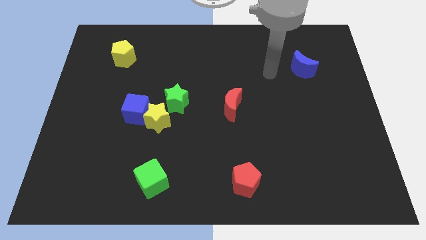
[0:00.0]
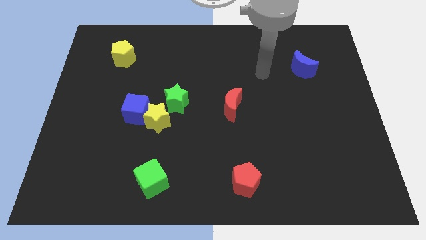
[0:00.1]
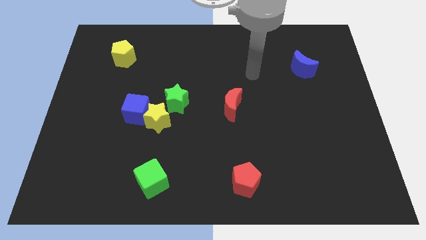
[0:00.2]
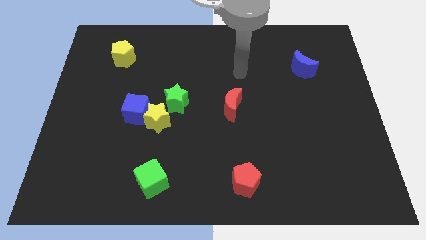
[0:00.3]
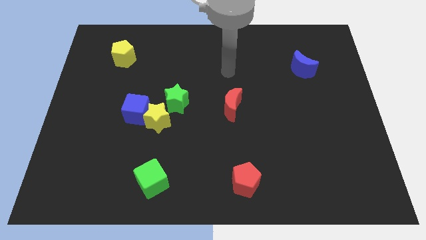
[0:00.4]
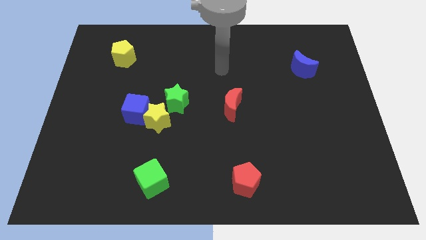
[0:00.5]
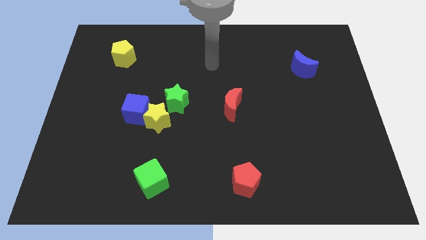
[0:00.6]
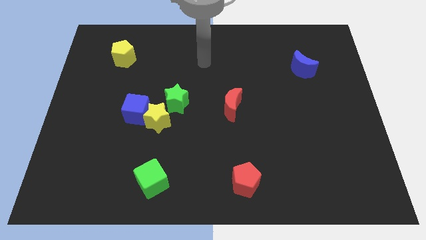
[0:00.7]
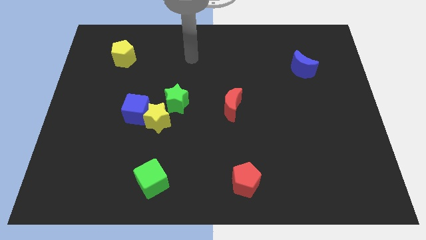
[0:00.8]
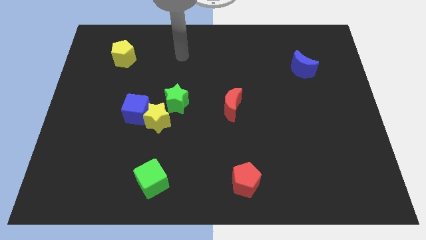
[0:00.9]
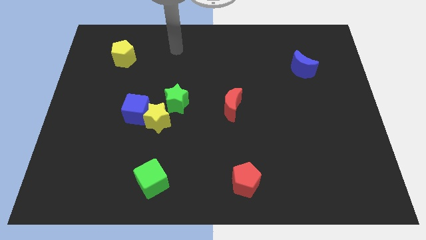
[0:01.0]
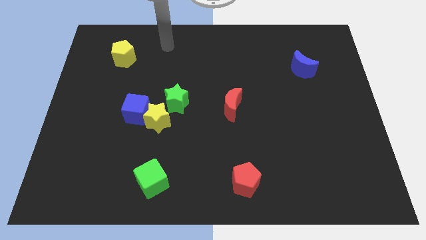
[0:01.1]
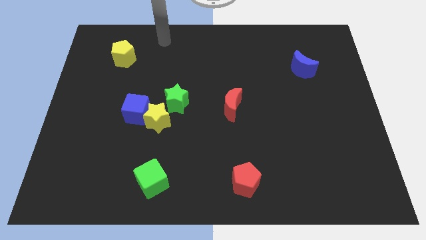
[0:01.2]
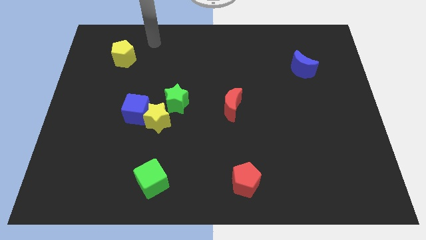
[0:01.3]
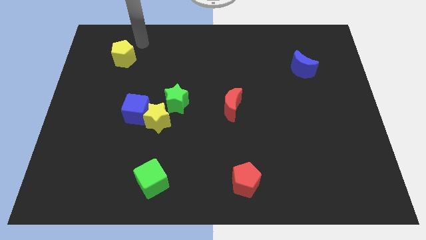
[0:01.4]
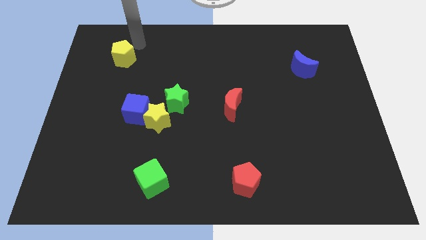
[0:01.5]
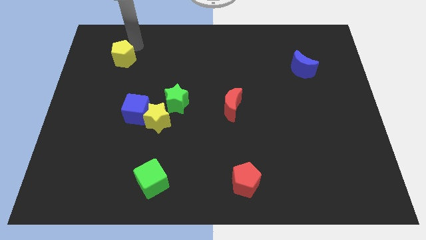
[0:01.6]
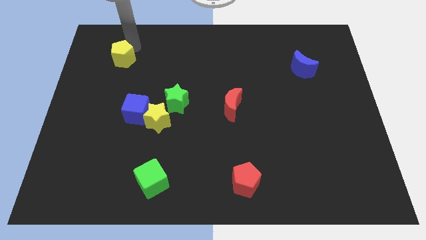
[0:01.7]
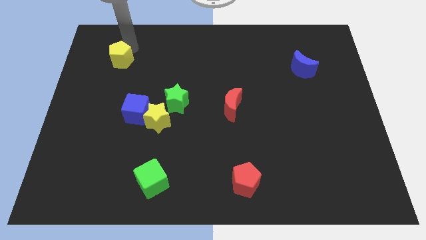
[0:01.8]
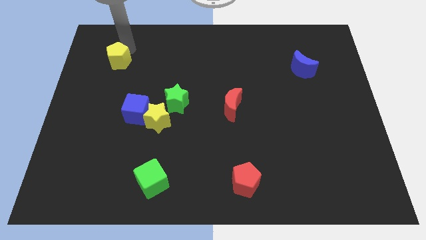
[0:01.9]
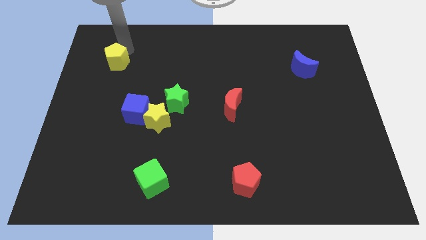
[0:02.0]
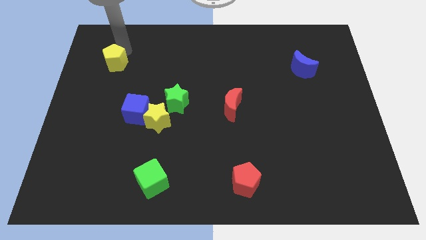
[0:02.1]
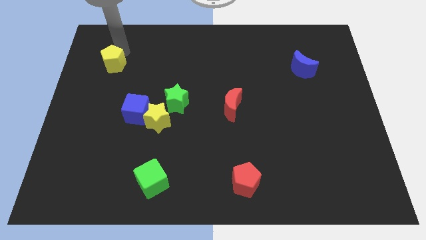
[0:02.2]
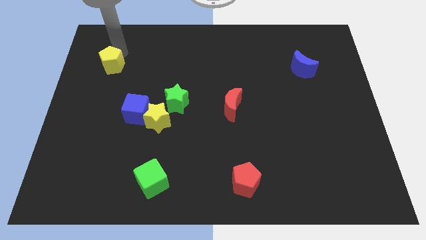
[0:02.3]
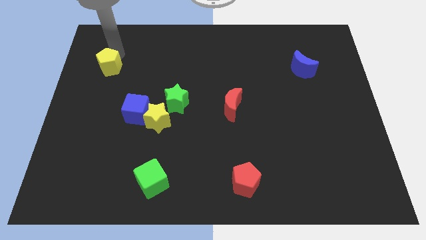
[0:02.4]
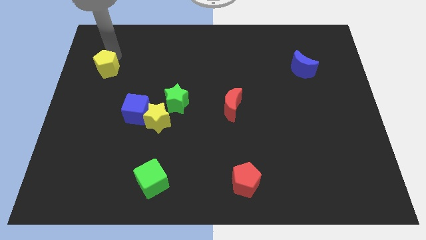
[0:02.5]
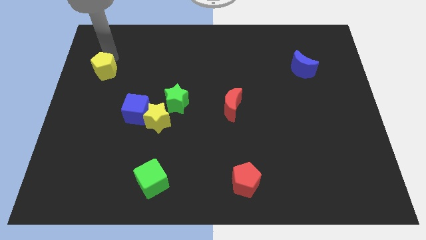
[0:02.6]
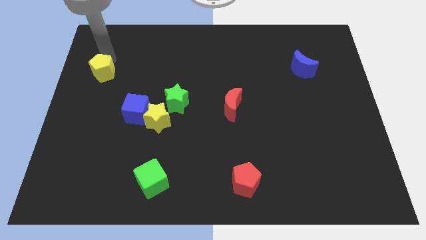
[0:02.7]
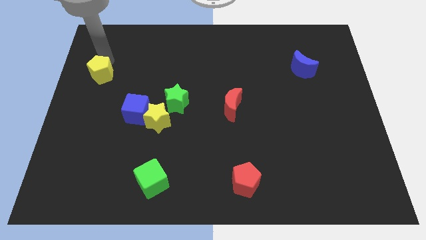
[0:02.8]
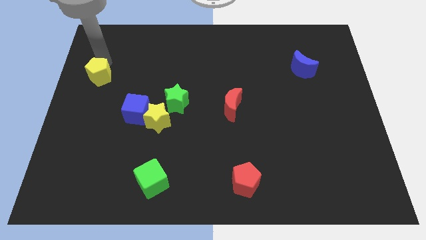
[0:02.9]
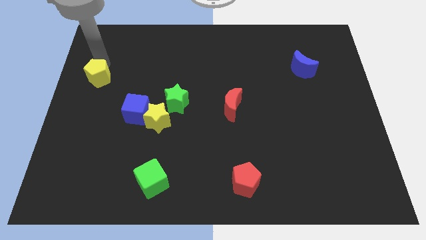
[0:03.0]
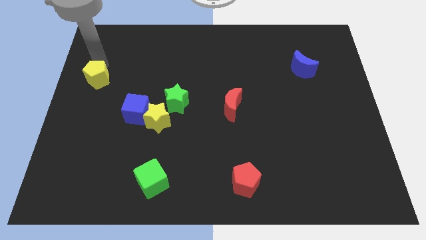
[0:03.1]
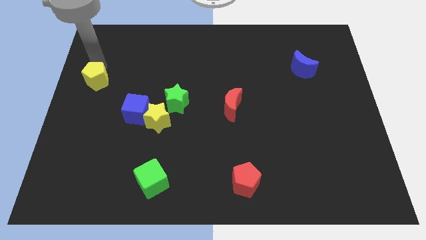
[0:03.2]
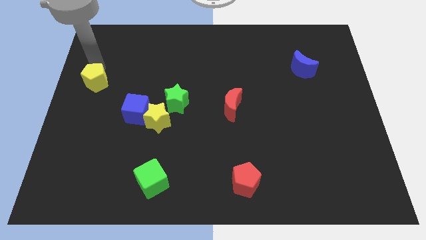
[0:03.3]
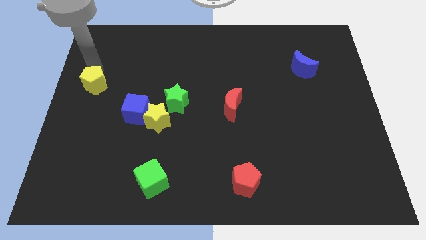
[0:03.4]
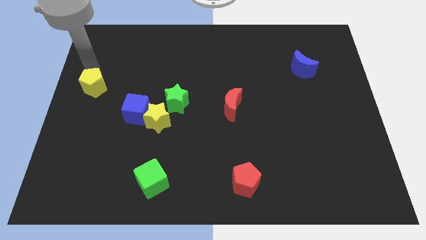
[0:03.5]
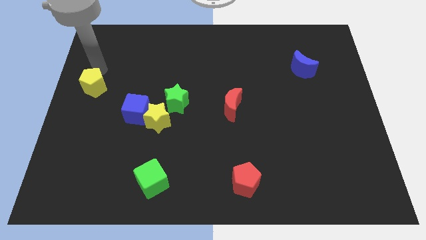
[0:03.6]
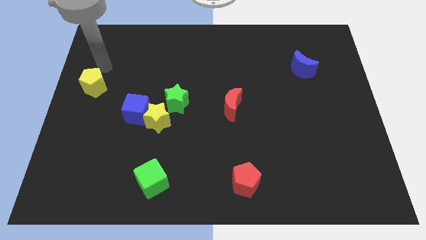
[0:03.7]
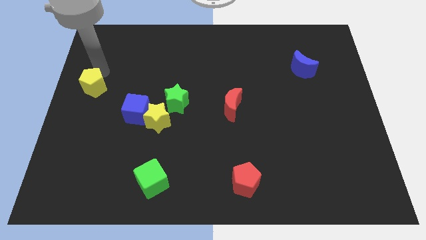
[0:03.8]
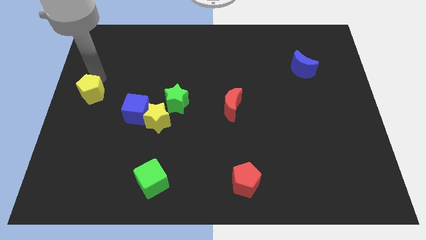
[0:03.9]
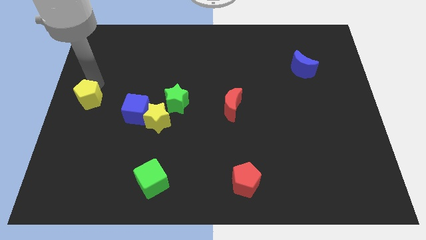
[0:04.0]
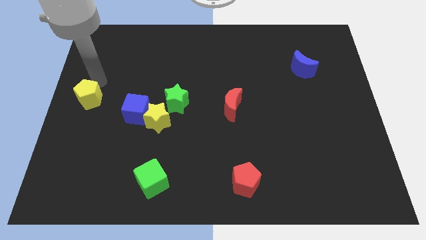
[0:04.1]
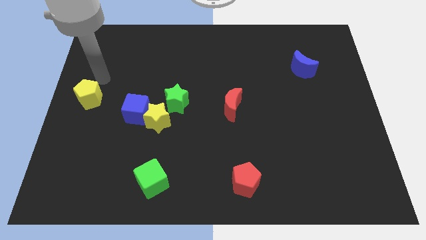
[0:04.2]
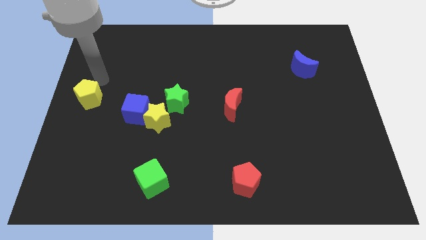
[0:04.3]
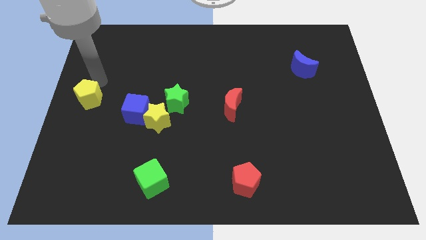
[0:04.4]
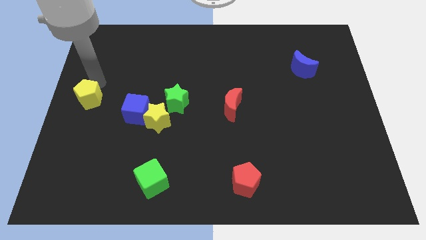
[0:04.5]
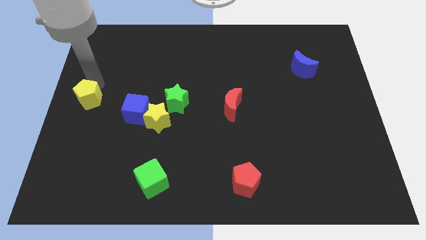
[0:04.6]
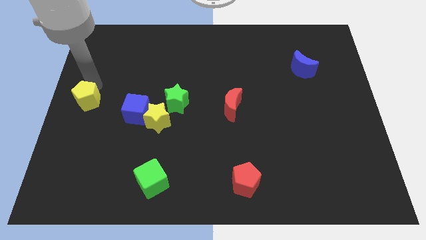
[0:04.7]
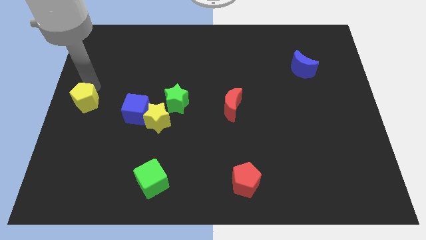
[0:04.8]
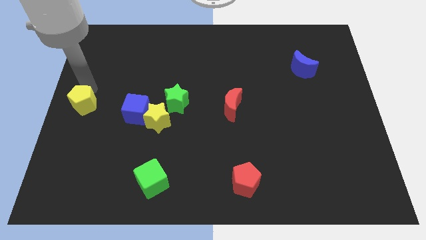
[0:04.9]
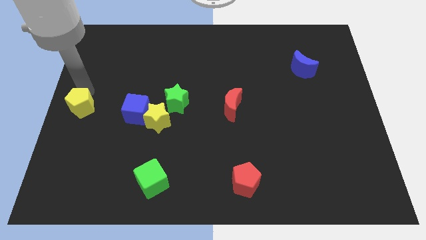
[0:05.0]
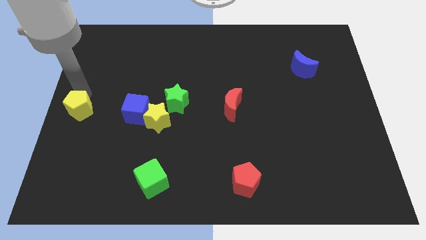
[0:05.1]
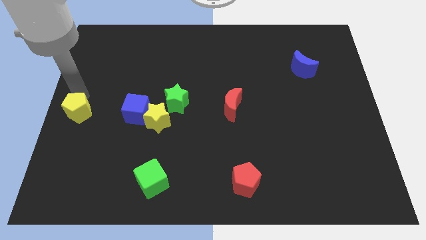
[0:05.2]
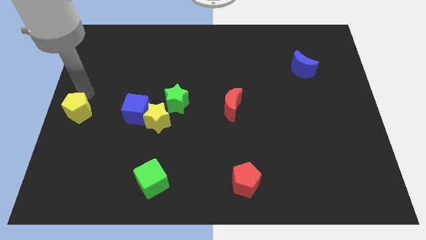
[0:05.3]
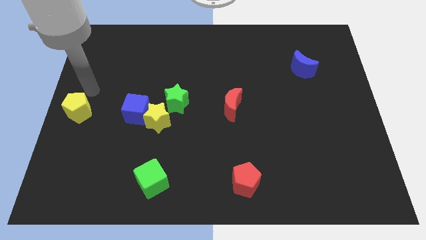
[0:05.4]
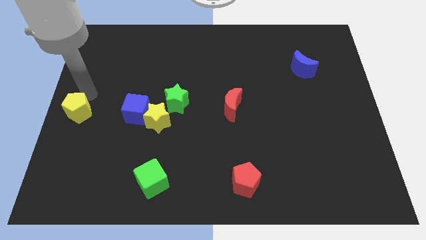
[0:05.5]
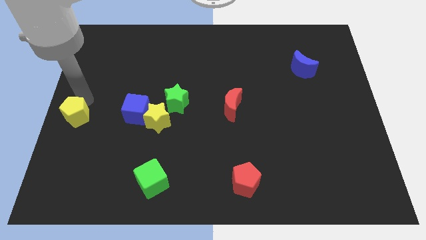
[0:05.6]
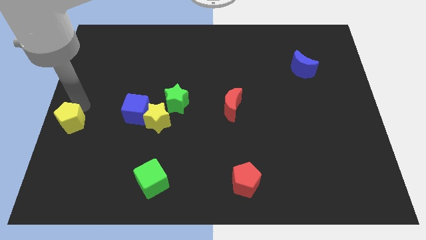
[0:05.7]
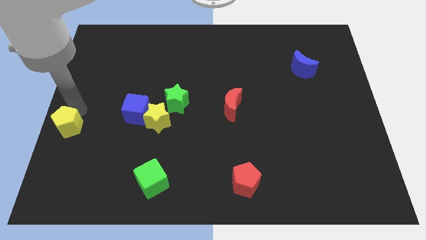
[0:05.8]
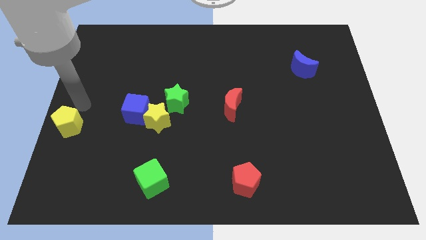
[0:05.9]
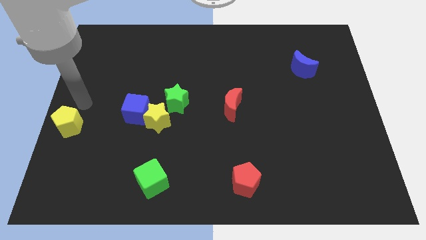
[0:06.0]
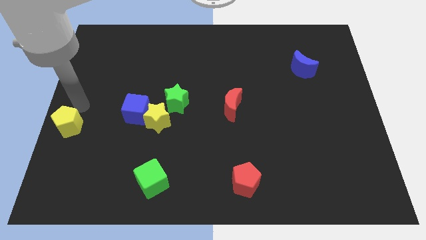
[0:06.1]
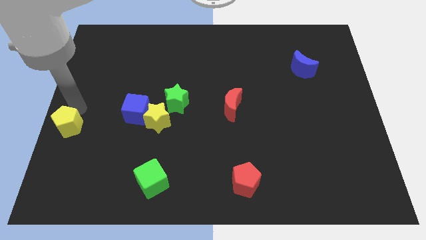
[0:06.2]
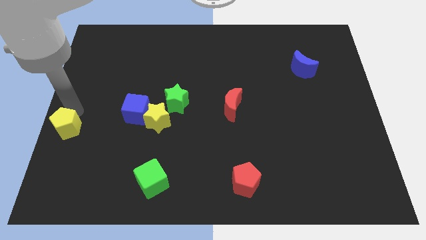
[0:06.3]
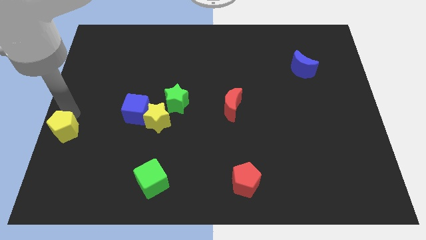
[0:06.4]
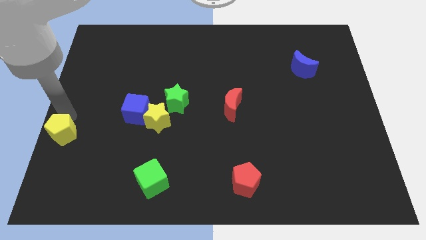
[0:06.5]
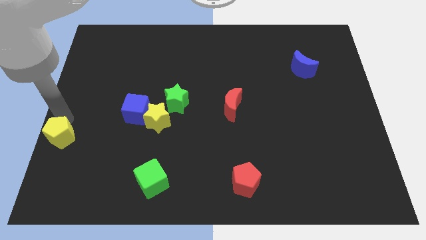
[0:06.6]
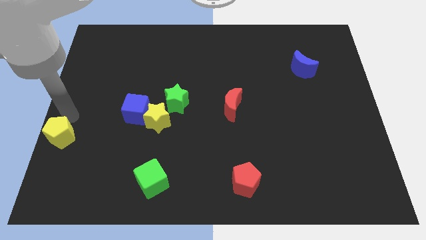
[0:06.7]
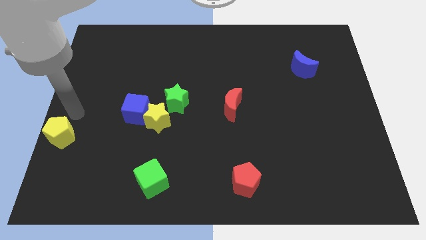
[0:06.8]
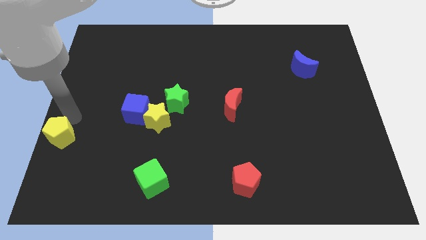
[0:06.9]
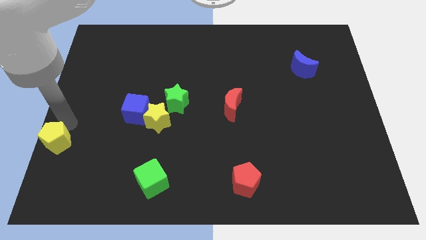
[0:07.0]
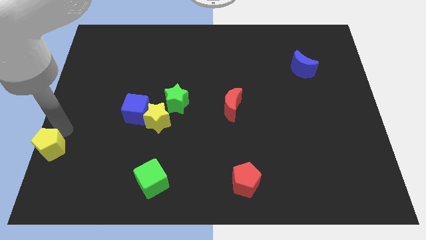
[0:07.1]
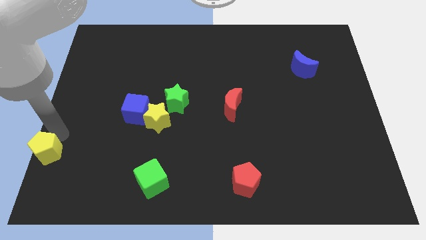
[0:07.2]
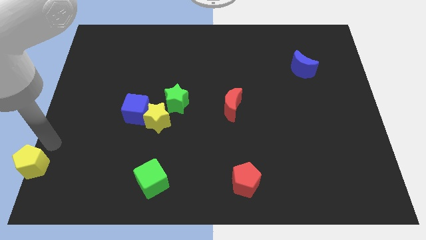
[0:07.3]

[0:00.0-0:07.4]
slide the yellow pentagon to the lower left corner
